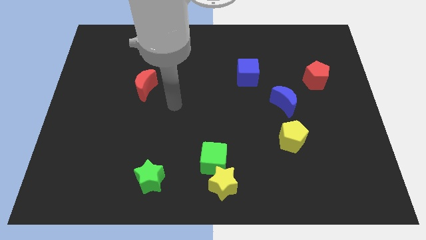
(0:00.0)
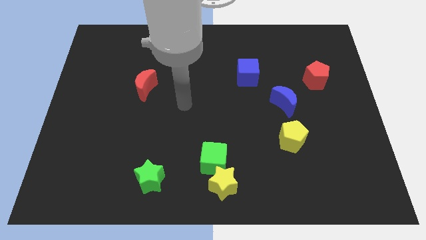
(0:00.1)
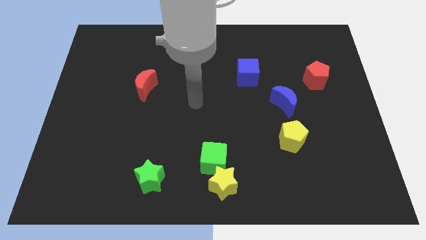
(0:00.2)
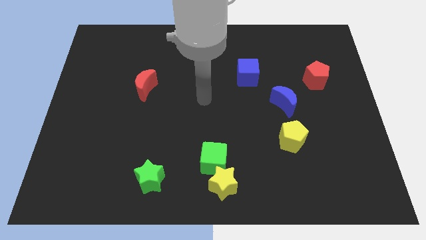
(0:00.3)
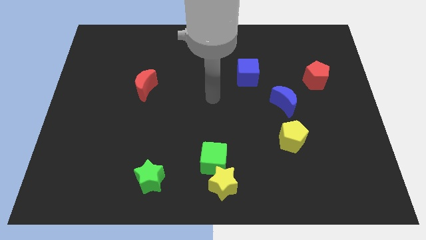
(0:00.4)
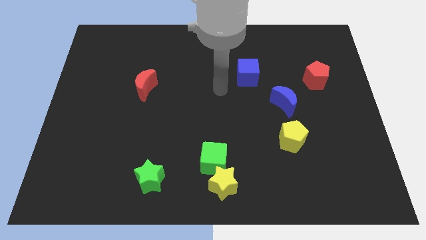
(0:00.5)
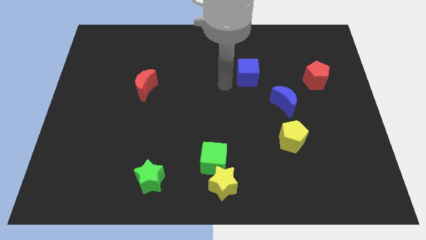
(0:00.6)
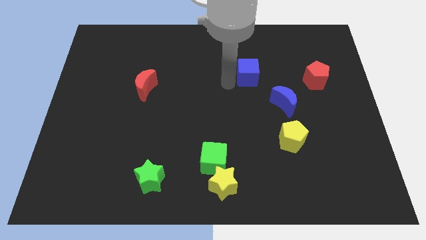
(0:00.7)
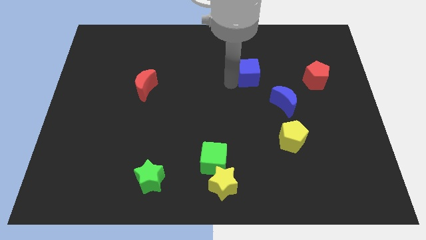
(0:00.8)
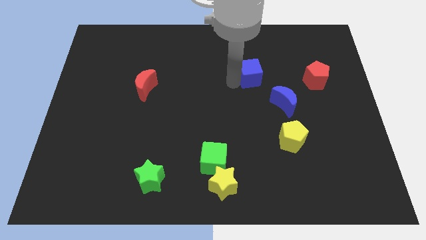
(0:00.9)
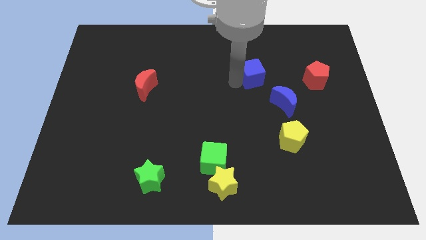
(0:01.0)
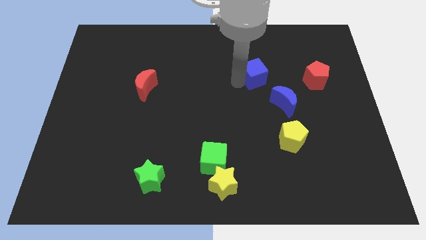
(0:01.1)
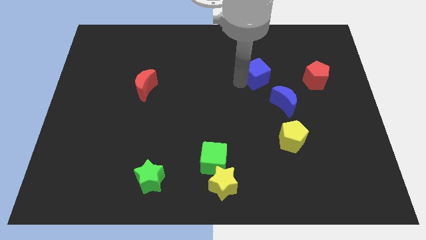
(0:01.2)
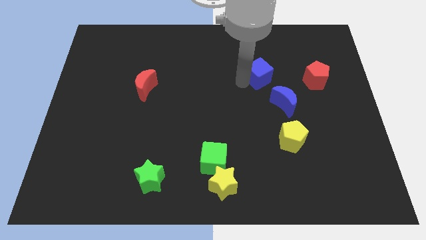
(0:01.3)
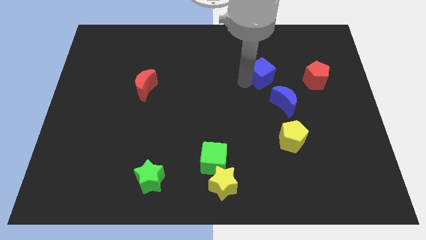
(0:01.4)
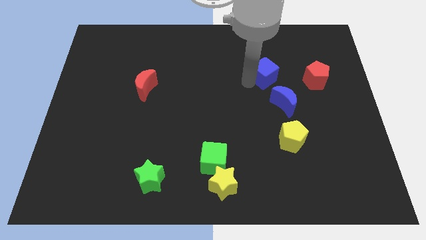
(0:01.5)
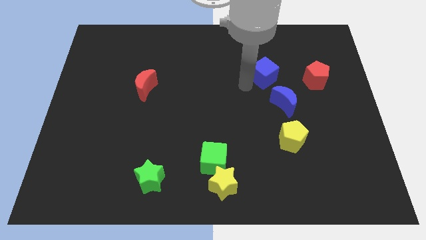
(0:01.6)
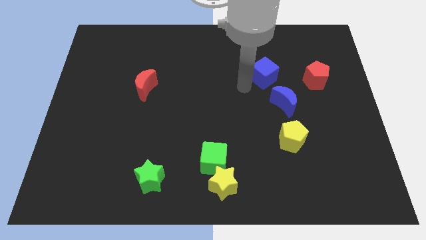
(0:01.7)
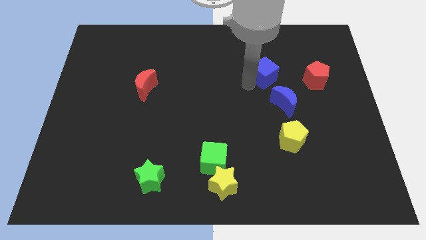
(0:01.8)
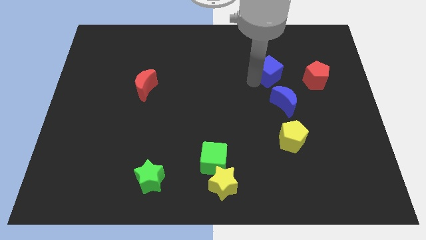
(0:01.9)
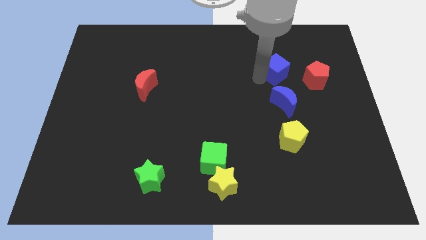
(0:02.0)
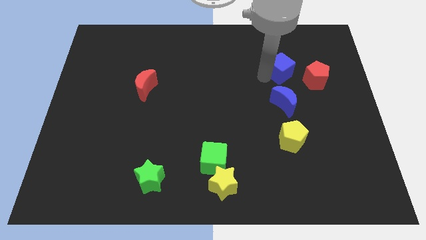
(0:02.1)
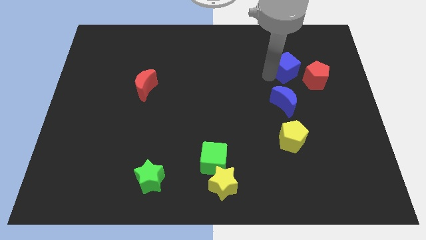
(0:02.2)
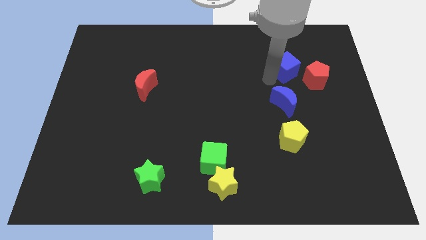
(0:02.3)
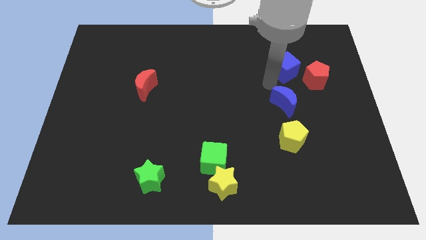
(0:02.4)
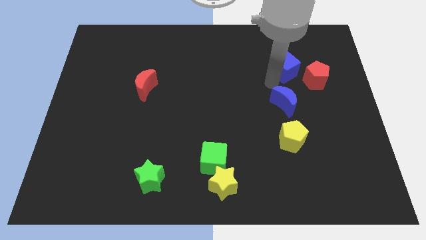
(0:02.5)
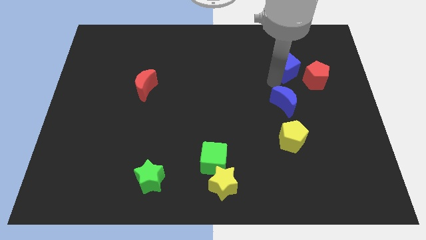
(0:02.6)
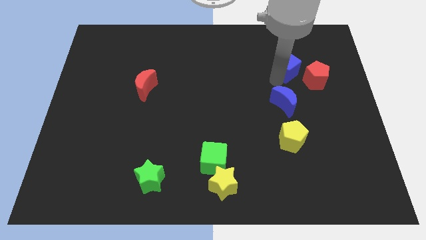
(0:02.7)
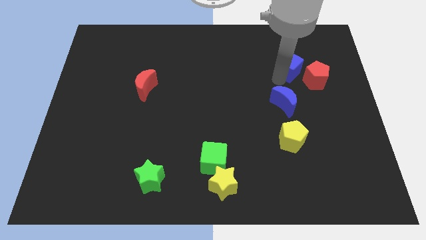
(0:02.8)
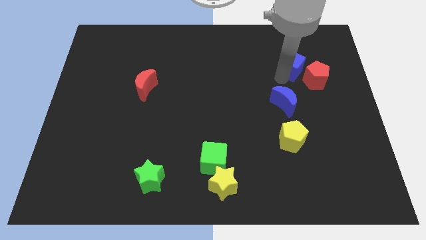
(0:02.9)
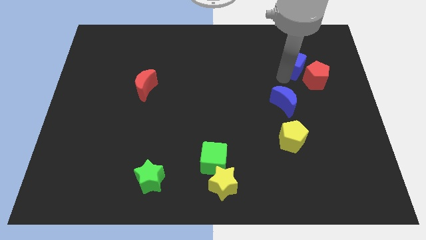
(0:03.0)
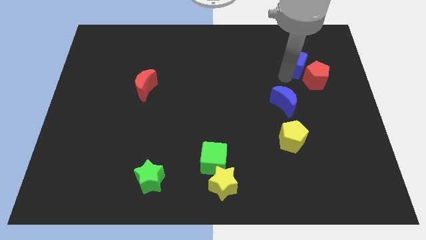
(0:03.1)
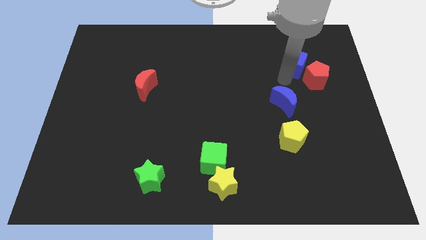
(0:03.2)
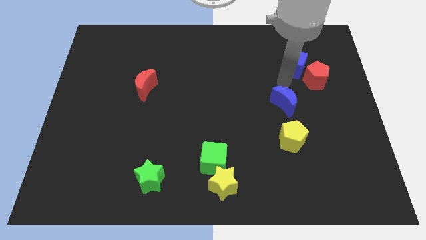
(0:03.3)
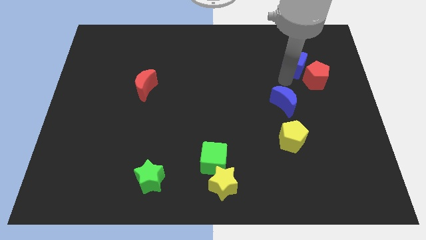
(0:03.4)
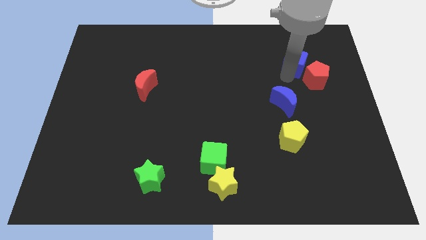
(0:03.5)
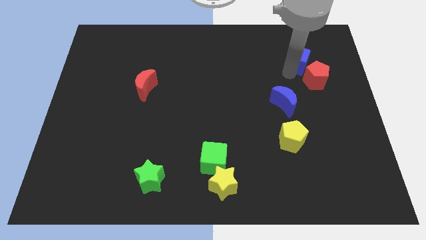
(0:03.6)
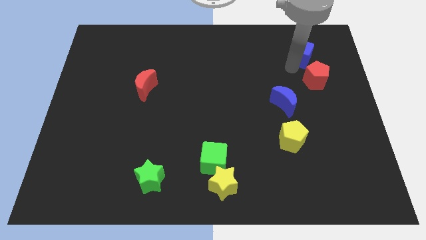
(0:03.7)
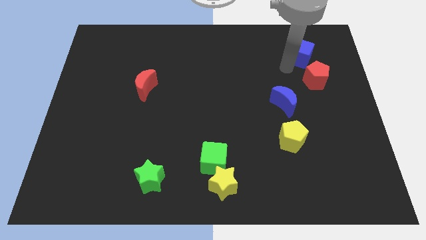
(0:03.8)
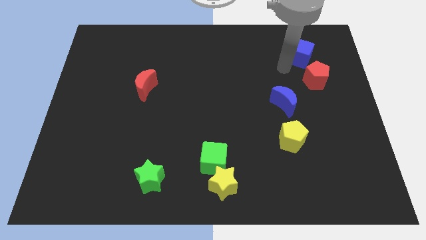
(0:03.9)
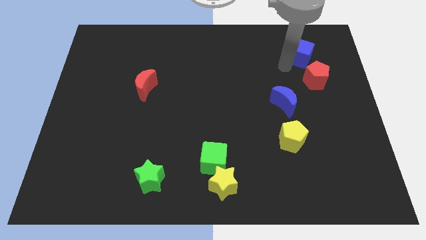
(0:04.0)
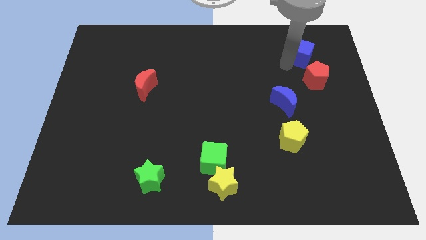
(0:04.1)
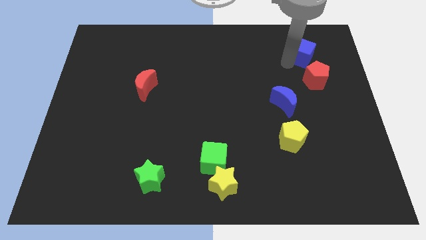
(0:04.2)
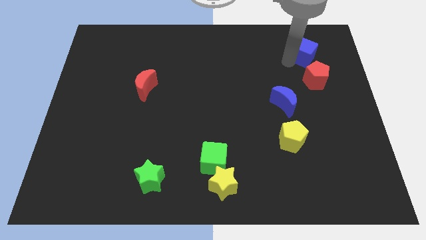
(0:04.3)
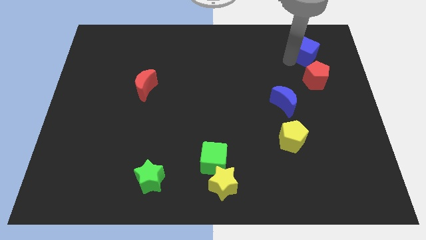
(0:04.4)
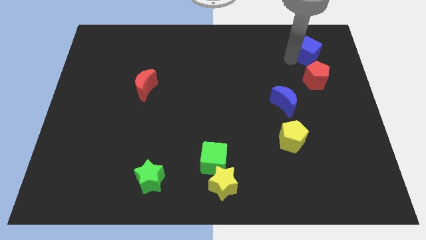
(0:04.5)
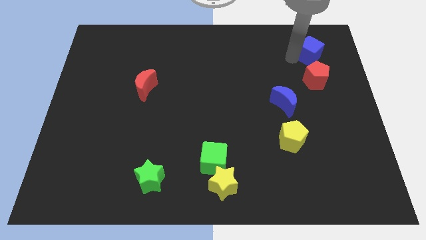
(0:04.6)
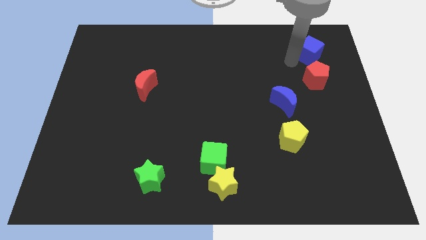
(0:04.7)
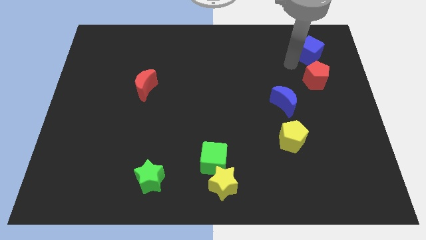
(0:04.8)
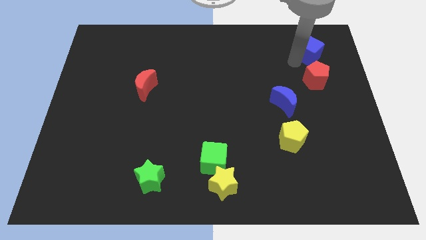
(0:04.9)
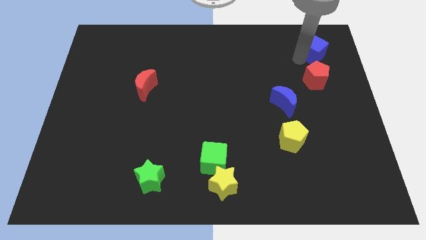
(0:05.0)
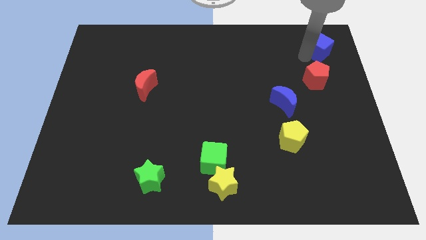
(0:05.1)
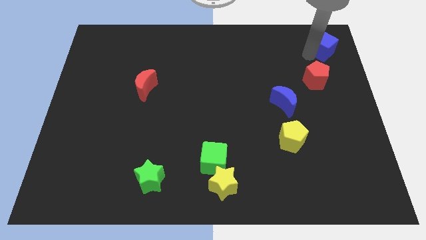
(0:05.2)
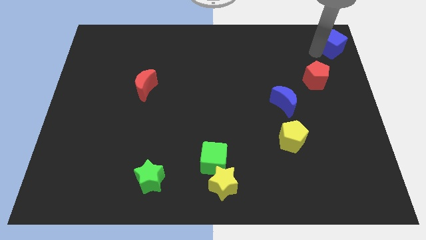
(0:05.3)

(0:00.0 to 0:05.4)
move the blue cube to the upper right corner

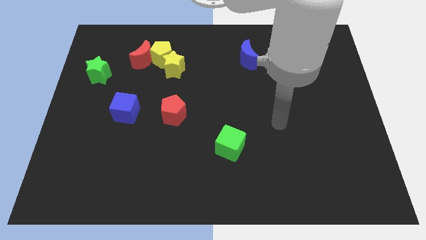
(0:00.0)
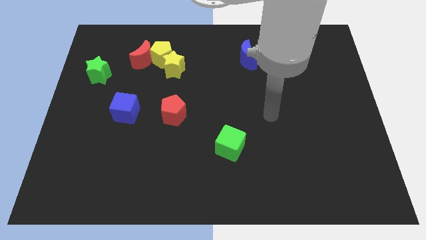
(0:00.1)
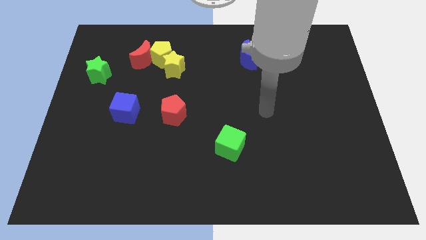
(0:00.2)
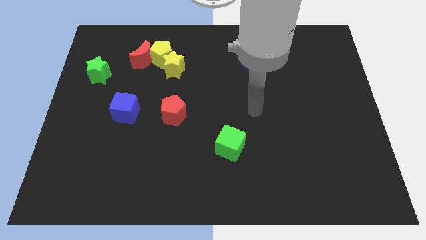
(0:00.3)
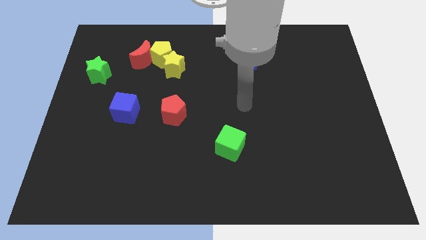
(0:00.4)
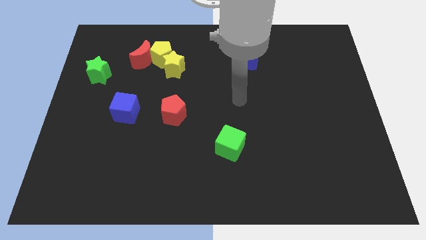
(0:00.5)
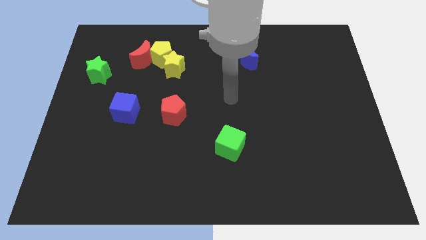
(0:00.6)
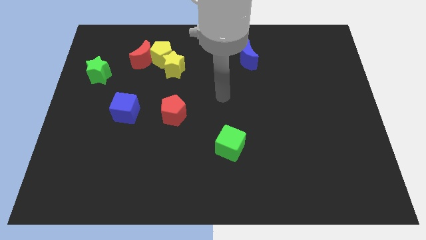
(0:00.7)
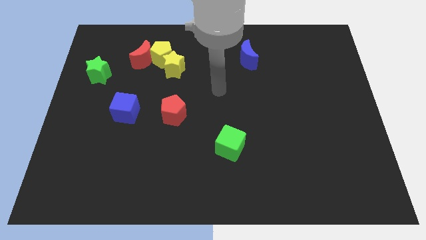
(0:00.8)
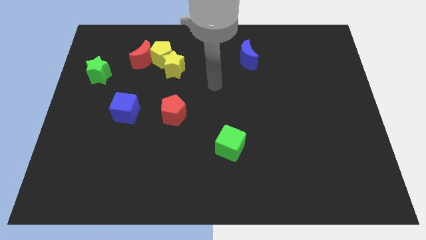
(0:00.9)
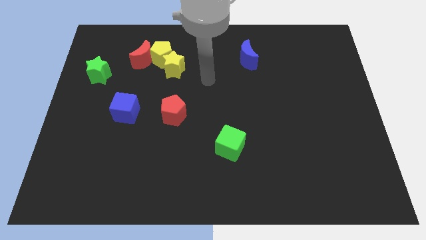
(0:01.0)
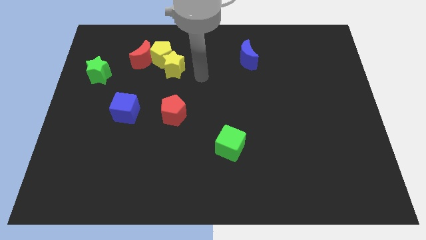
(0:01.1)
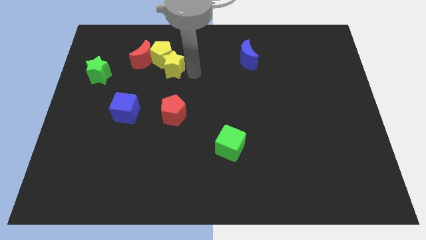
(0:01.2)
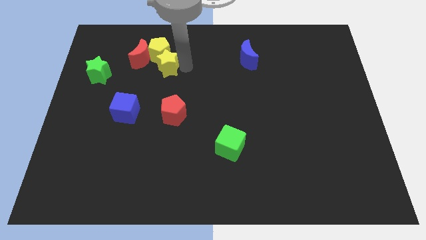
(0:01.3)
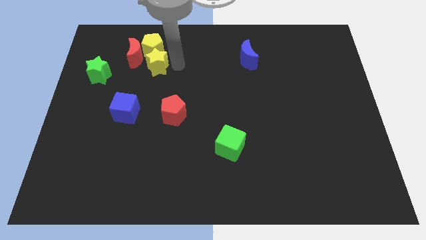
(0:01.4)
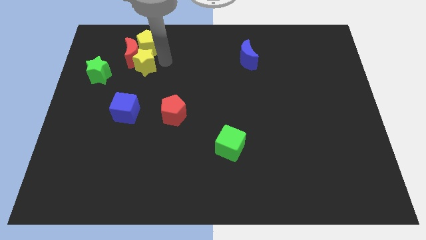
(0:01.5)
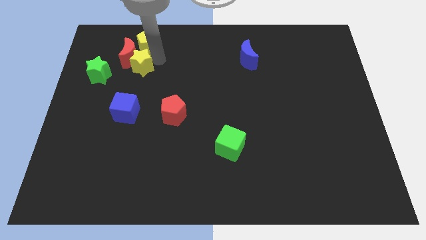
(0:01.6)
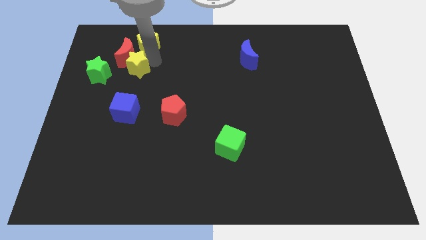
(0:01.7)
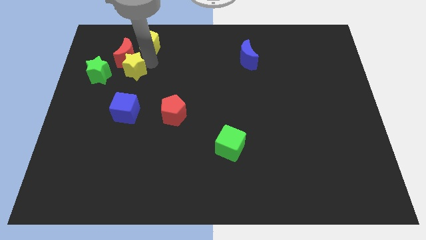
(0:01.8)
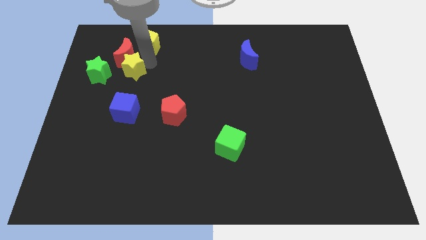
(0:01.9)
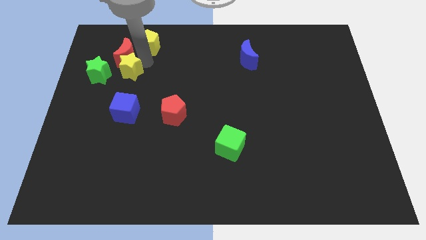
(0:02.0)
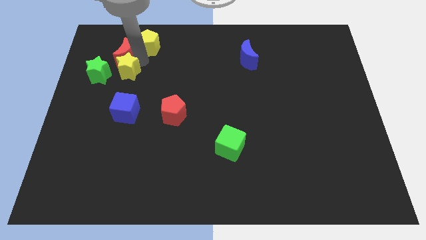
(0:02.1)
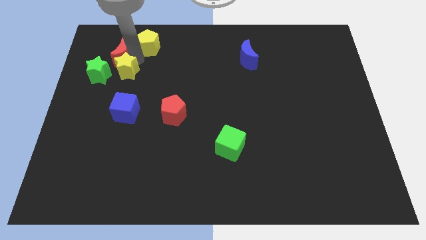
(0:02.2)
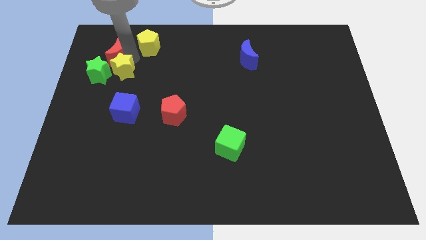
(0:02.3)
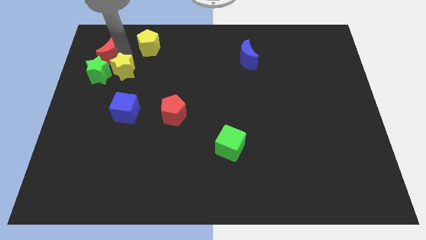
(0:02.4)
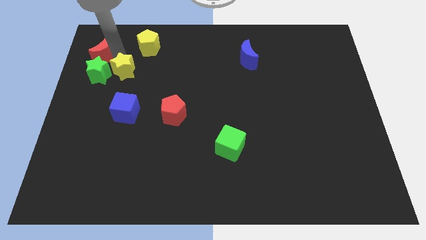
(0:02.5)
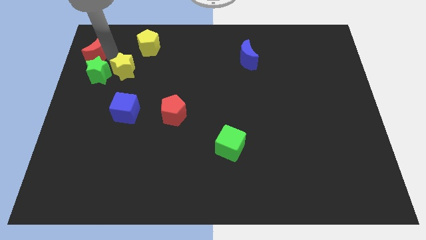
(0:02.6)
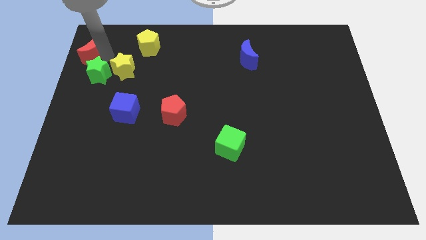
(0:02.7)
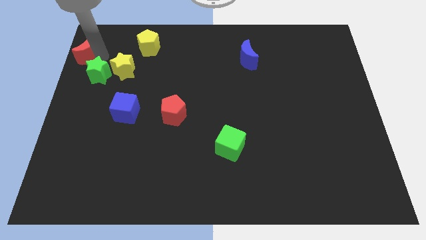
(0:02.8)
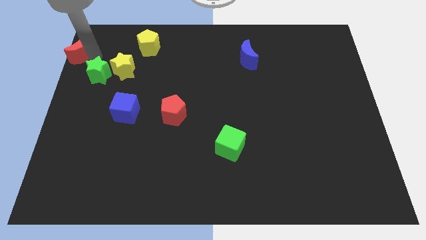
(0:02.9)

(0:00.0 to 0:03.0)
put the red moon to the top left of the board
